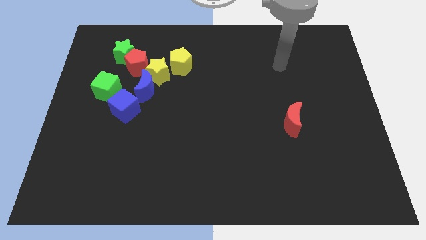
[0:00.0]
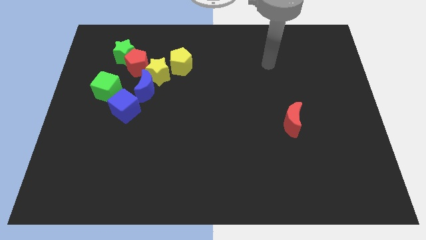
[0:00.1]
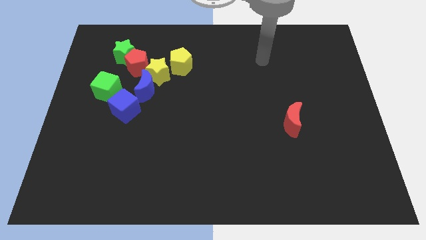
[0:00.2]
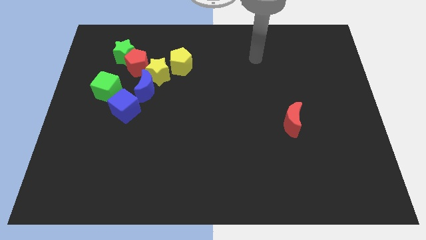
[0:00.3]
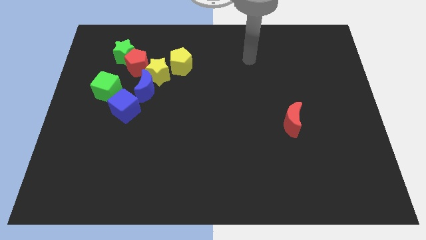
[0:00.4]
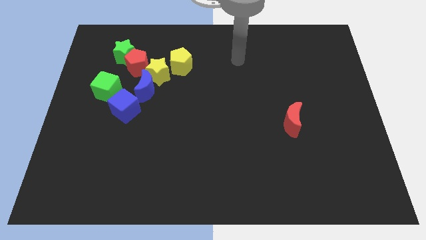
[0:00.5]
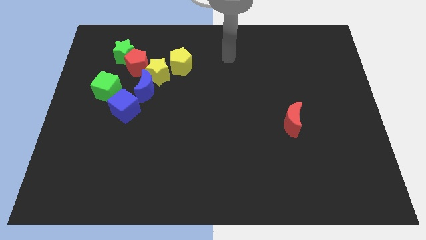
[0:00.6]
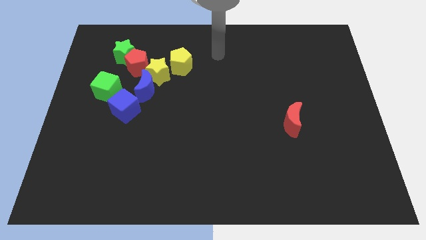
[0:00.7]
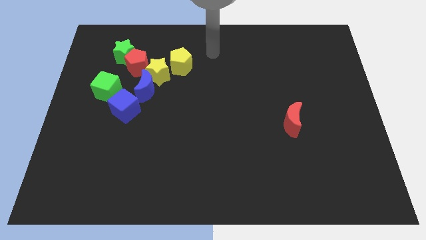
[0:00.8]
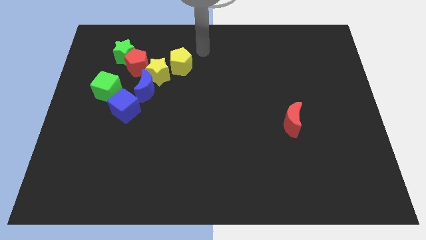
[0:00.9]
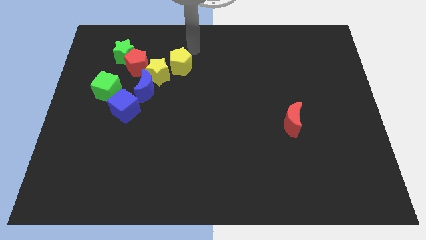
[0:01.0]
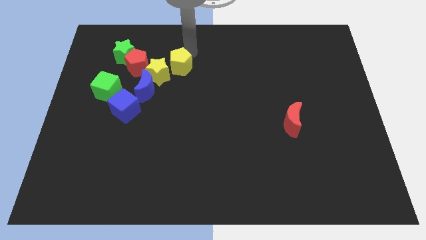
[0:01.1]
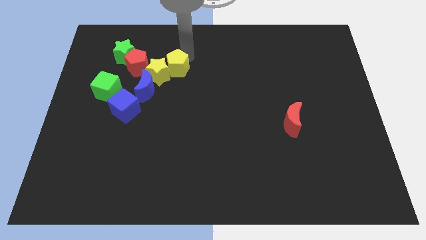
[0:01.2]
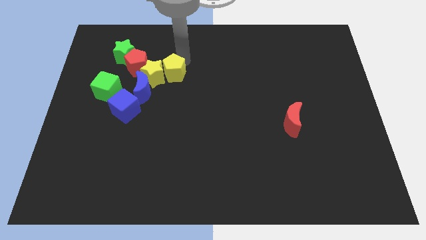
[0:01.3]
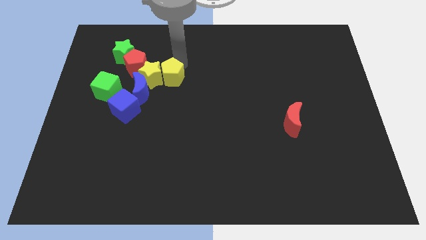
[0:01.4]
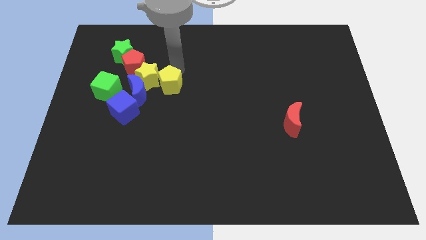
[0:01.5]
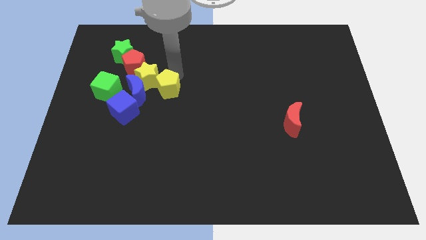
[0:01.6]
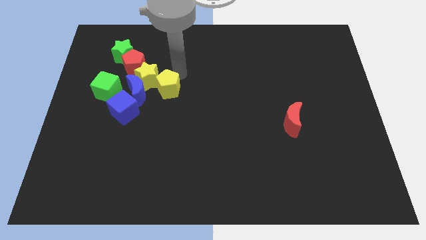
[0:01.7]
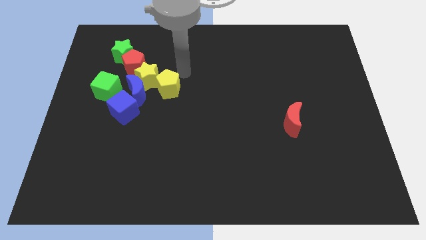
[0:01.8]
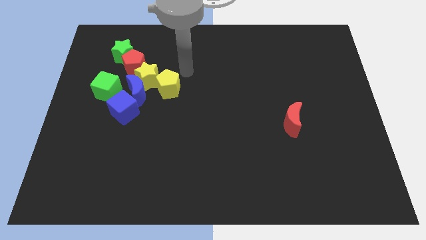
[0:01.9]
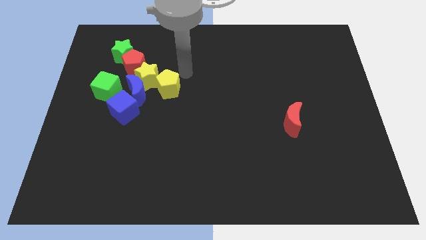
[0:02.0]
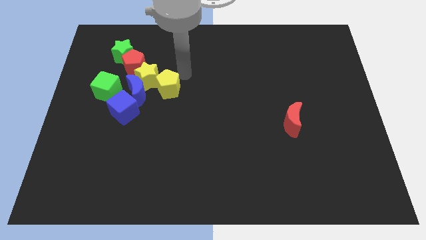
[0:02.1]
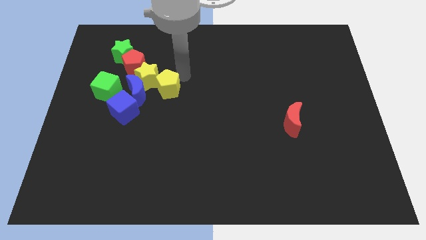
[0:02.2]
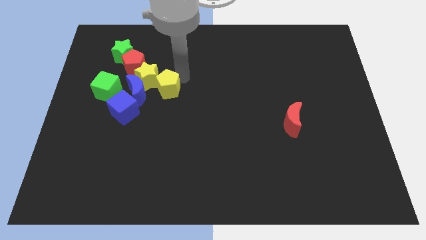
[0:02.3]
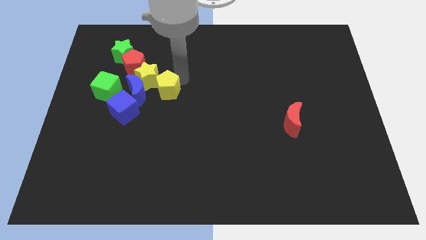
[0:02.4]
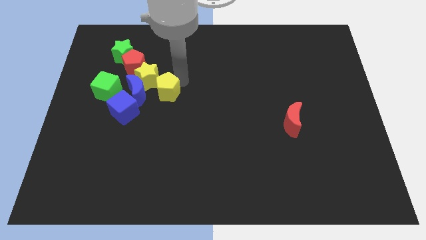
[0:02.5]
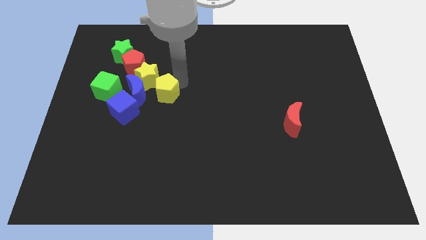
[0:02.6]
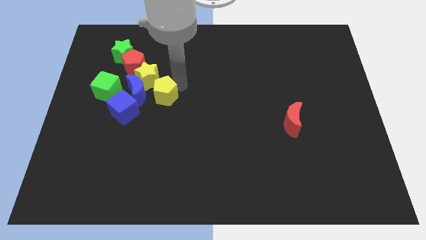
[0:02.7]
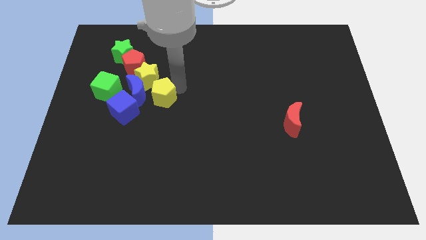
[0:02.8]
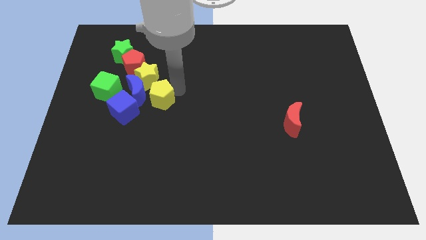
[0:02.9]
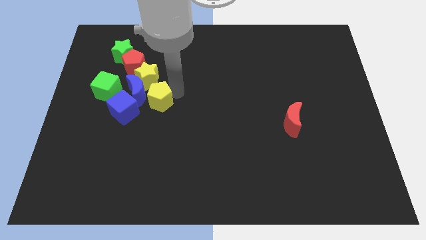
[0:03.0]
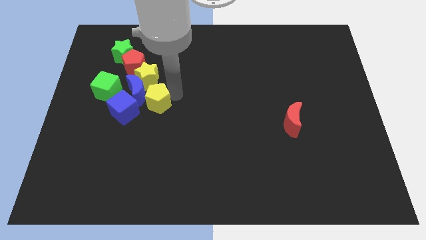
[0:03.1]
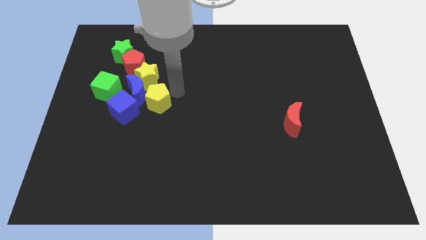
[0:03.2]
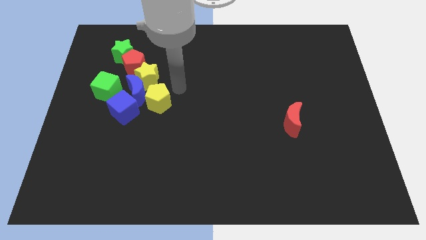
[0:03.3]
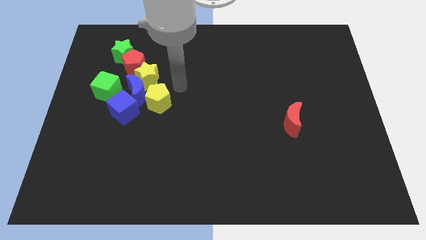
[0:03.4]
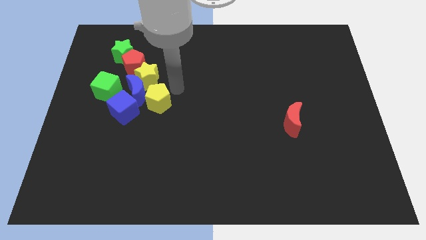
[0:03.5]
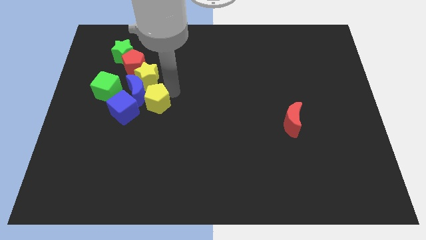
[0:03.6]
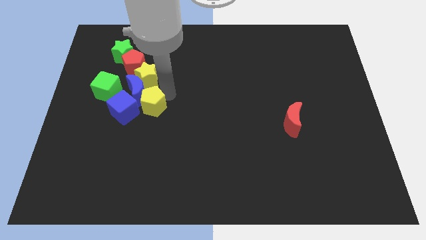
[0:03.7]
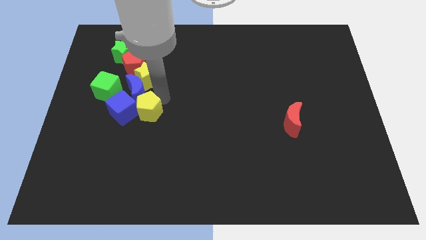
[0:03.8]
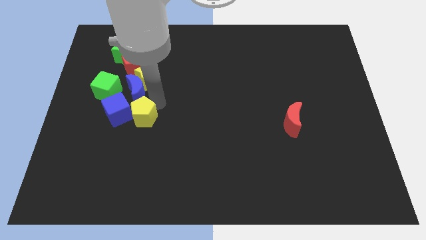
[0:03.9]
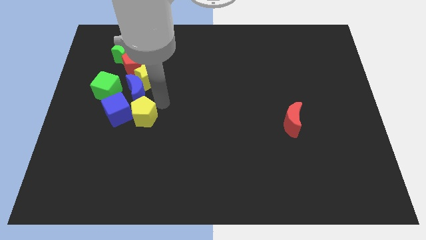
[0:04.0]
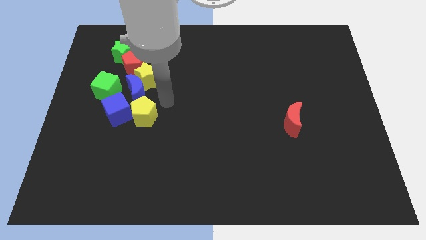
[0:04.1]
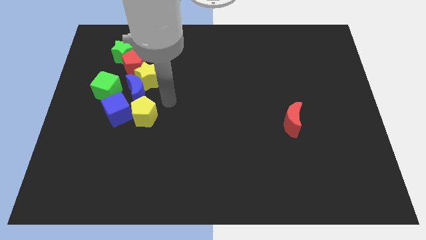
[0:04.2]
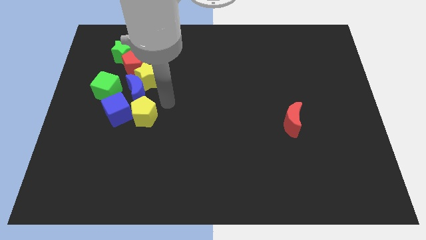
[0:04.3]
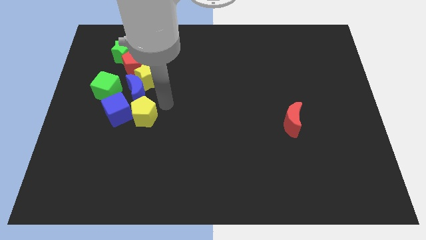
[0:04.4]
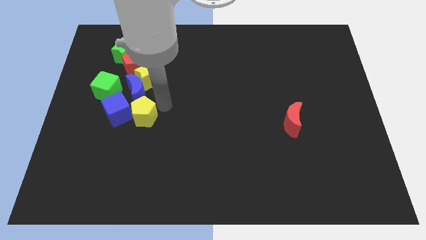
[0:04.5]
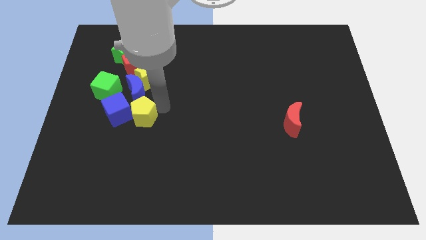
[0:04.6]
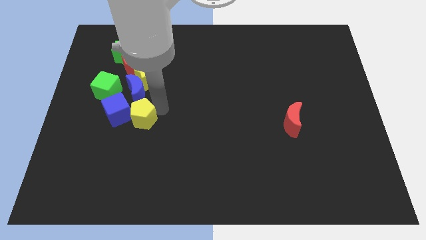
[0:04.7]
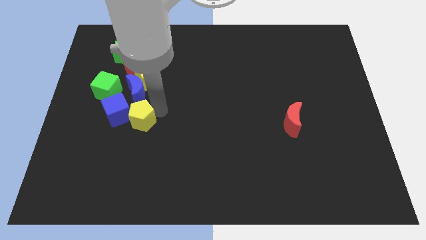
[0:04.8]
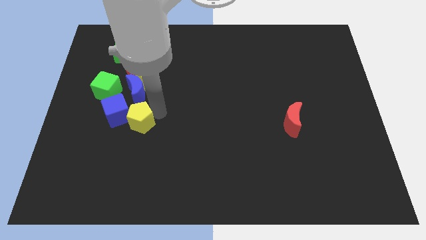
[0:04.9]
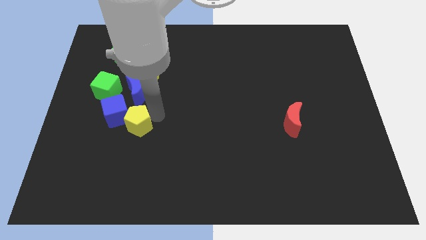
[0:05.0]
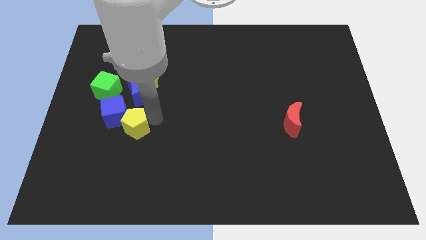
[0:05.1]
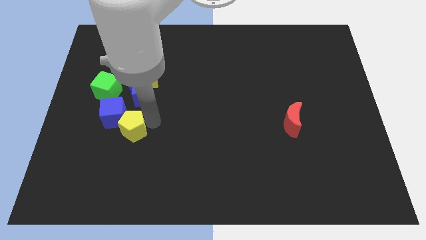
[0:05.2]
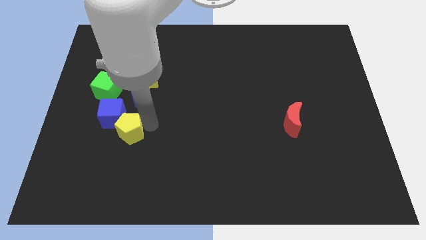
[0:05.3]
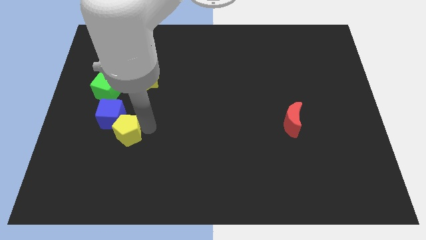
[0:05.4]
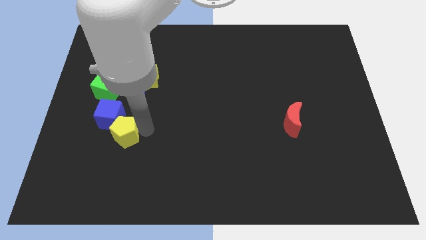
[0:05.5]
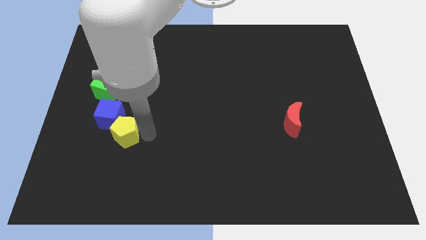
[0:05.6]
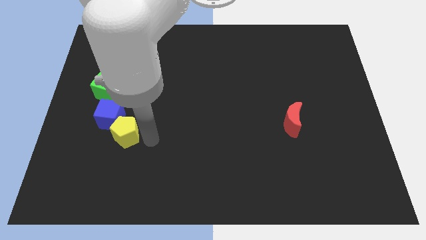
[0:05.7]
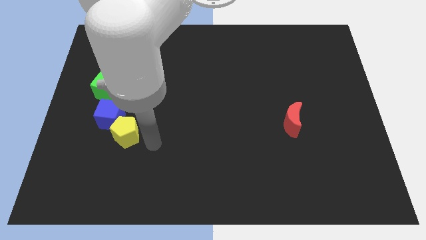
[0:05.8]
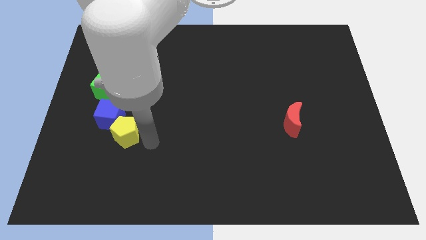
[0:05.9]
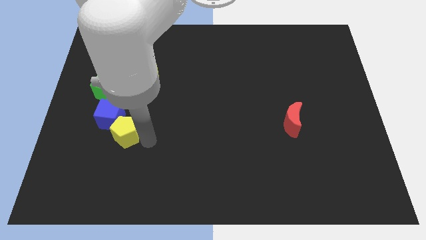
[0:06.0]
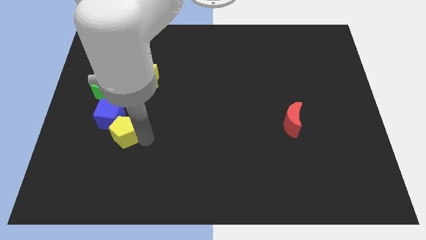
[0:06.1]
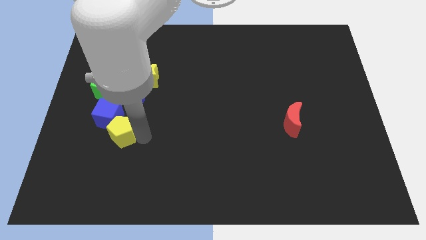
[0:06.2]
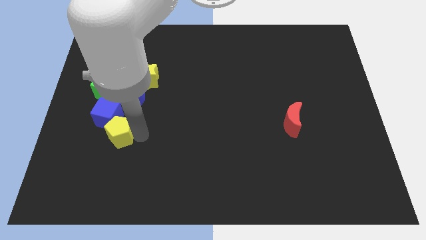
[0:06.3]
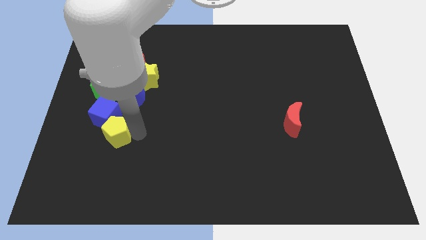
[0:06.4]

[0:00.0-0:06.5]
slide the yellow pentagon to the bottom side of the green cube
